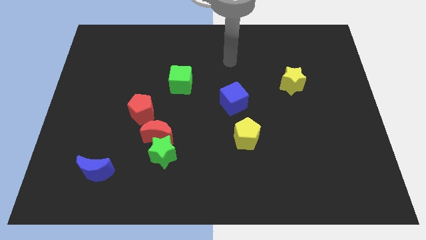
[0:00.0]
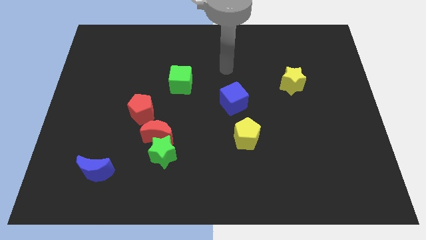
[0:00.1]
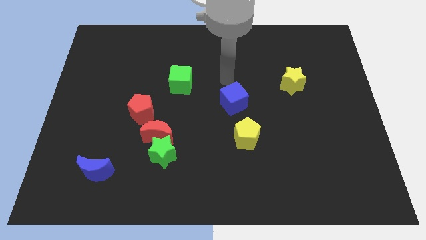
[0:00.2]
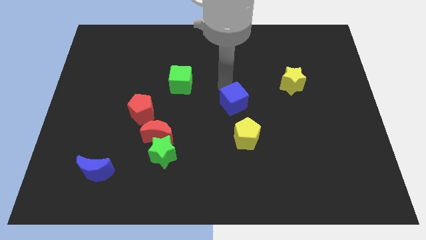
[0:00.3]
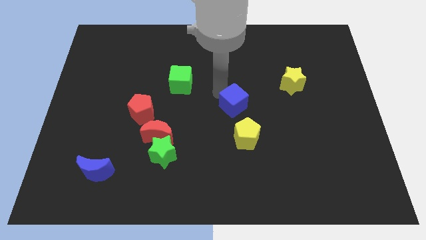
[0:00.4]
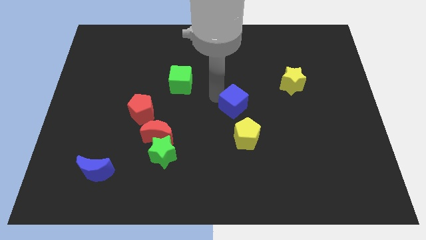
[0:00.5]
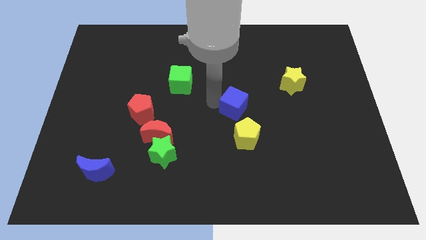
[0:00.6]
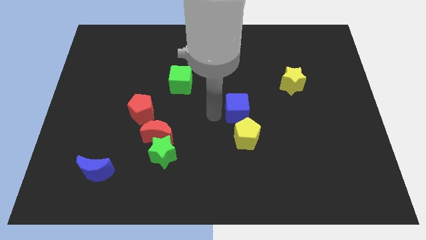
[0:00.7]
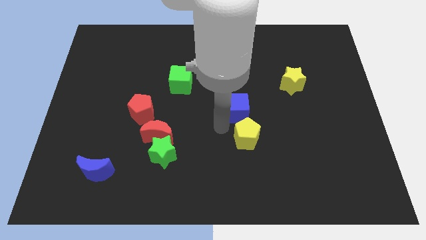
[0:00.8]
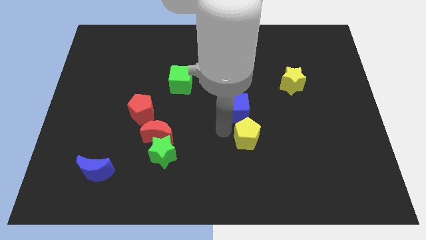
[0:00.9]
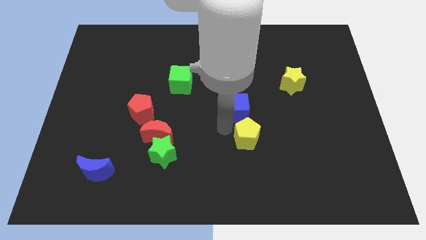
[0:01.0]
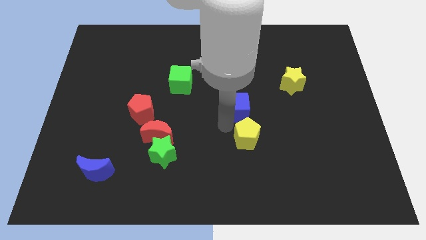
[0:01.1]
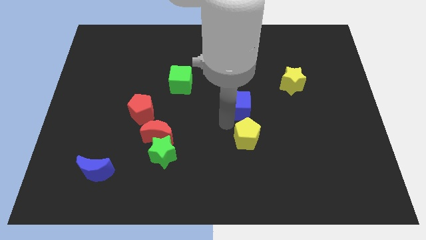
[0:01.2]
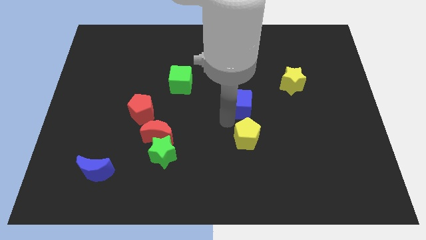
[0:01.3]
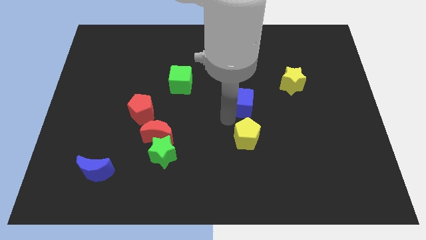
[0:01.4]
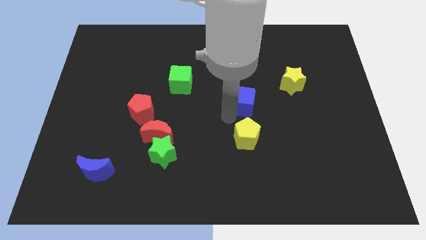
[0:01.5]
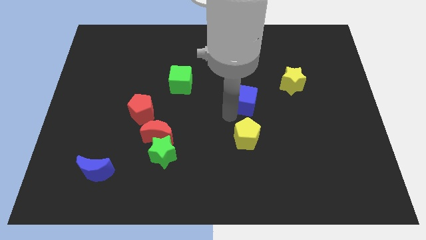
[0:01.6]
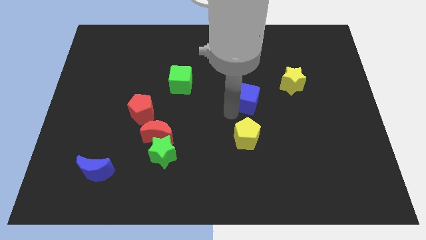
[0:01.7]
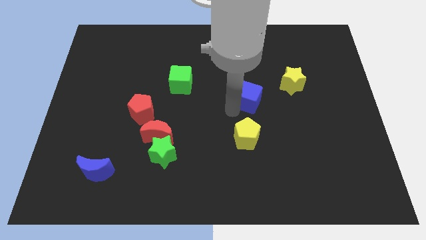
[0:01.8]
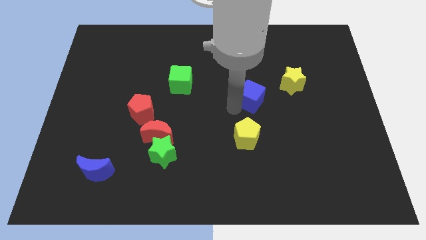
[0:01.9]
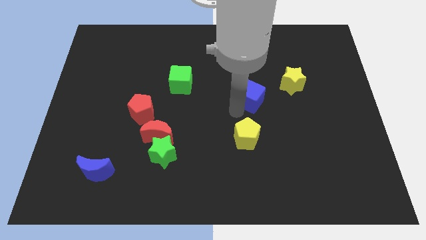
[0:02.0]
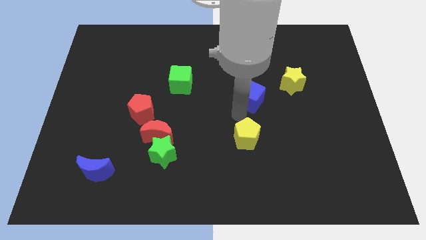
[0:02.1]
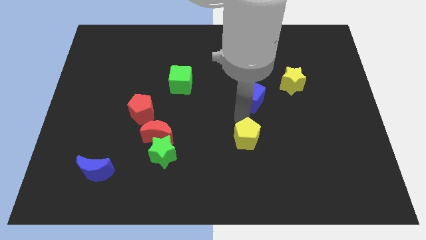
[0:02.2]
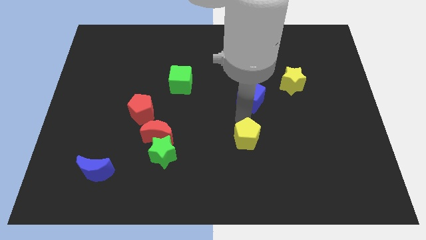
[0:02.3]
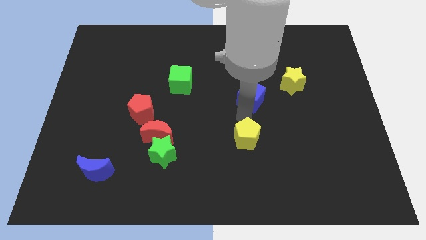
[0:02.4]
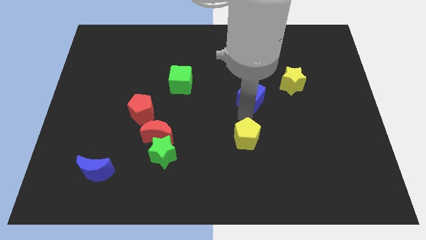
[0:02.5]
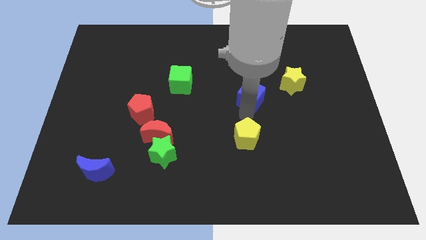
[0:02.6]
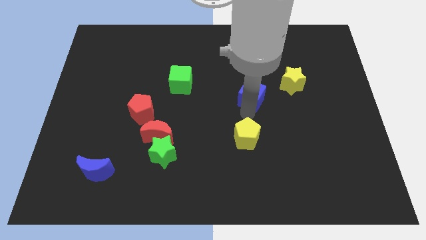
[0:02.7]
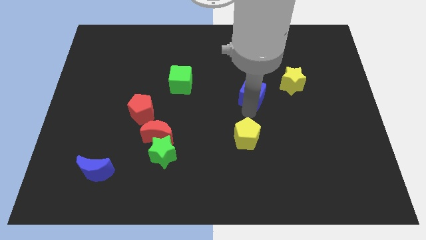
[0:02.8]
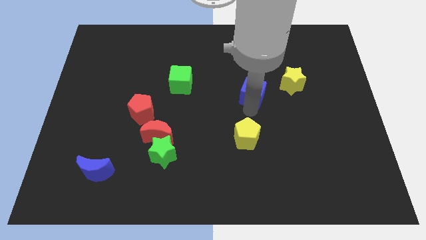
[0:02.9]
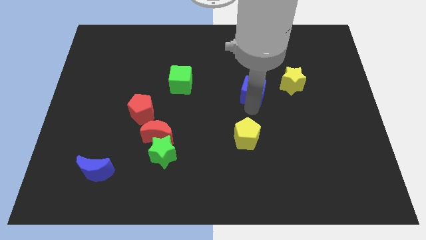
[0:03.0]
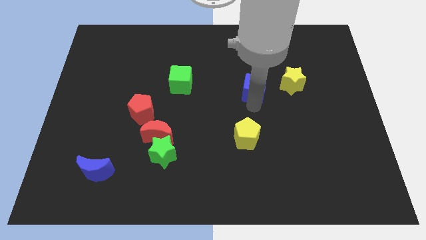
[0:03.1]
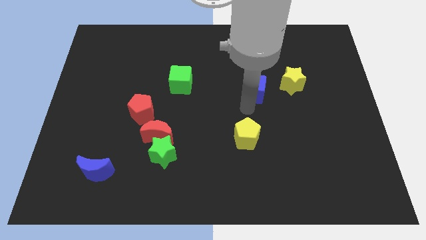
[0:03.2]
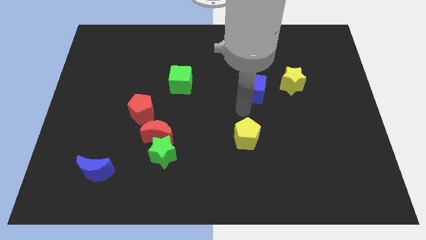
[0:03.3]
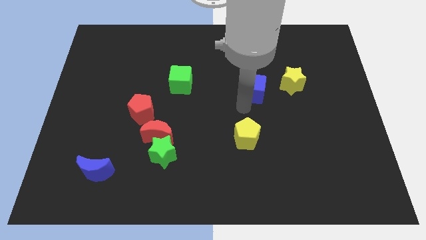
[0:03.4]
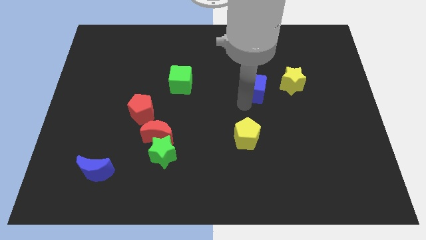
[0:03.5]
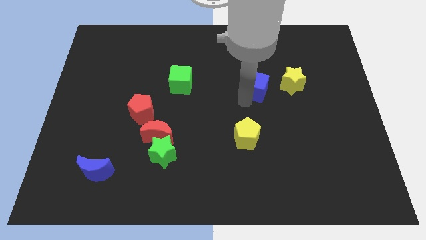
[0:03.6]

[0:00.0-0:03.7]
slide the blue cube up and to the right diagonally slightly

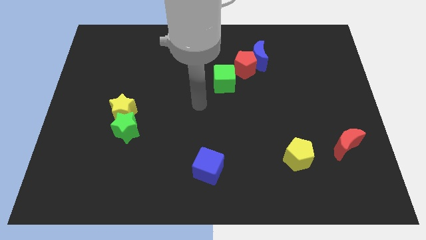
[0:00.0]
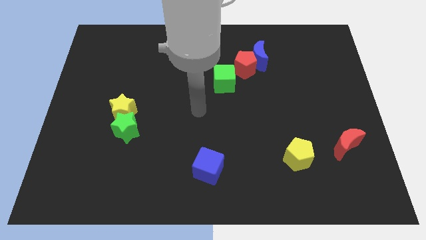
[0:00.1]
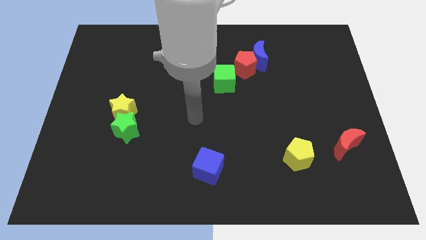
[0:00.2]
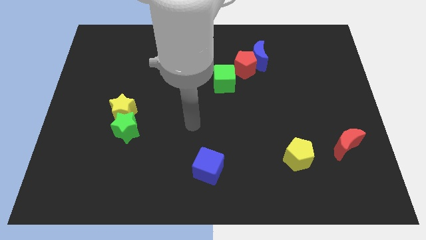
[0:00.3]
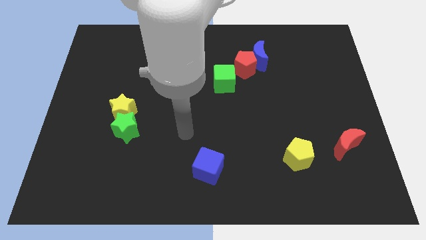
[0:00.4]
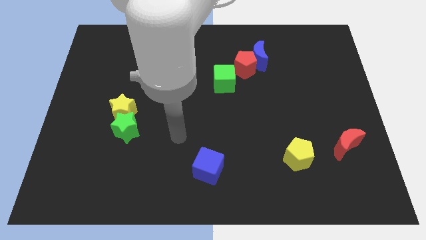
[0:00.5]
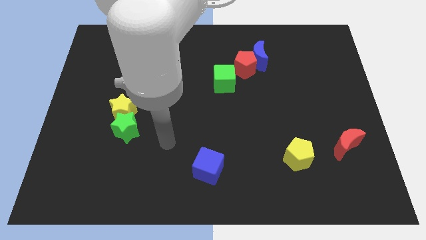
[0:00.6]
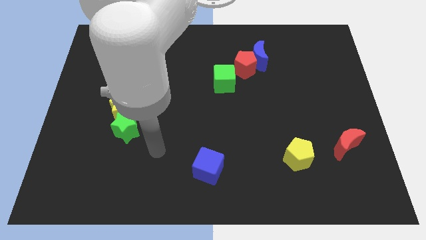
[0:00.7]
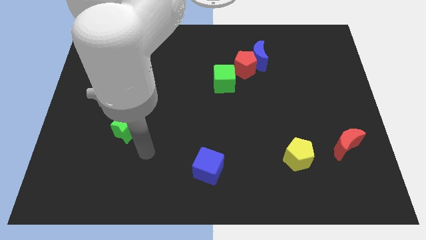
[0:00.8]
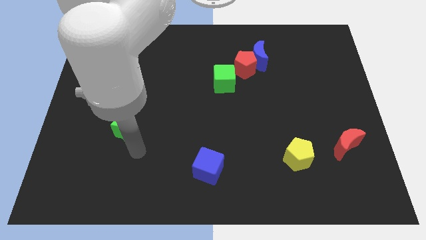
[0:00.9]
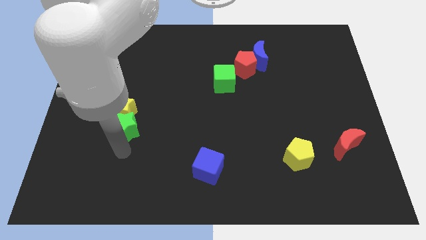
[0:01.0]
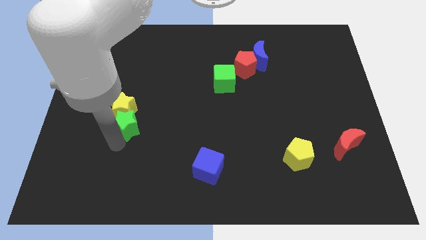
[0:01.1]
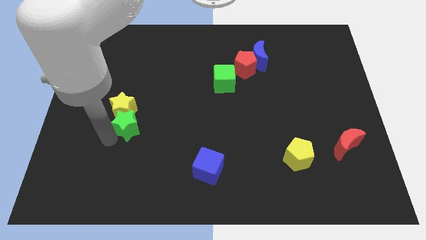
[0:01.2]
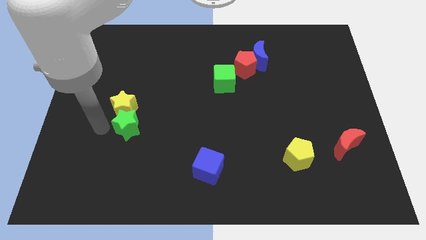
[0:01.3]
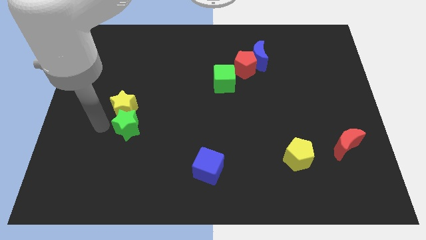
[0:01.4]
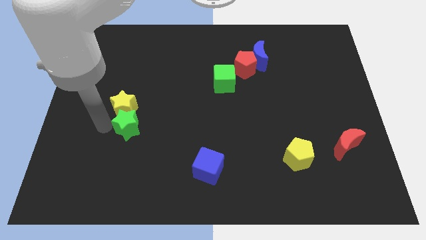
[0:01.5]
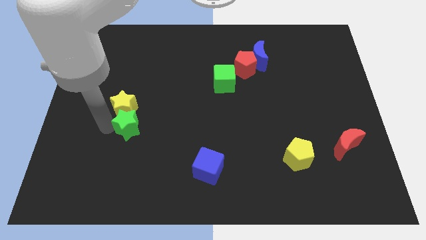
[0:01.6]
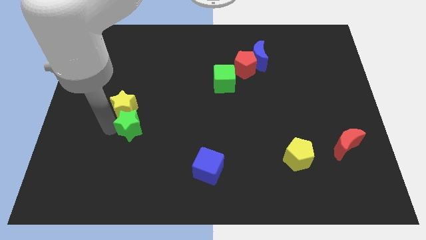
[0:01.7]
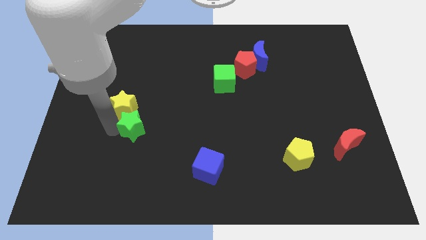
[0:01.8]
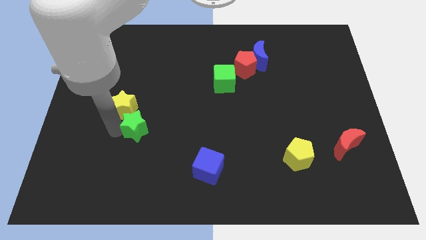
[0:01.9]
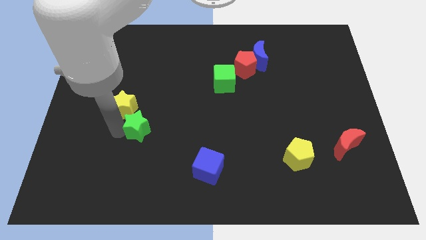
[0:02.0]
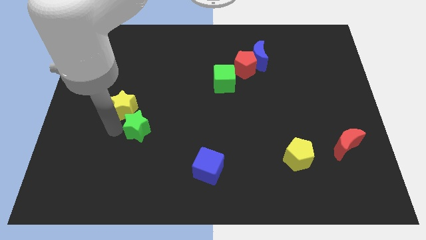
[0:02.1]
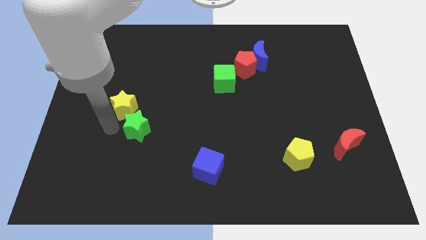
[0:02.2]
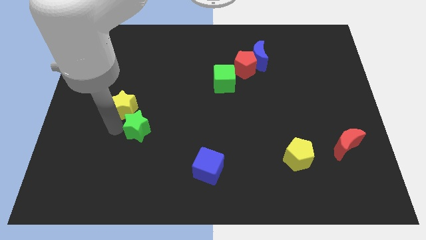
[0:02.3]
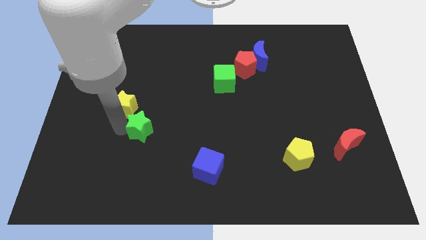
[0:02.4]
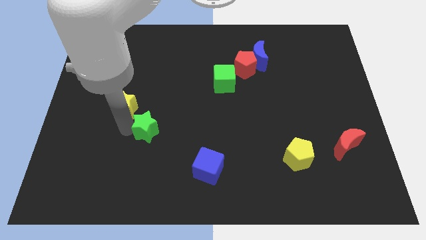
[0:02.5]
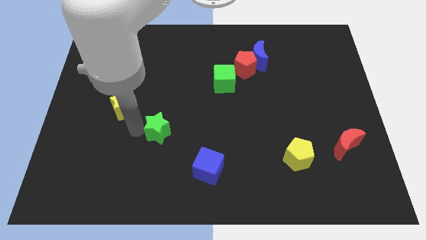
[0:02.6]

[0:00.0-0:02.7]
slightly slide the green star right

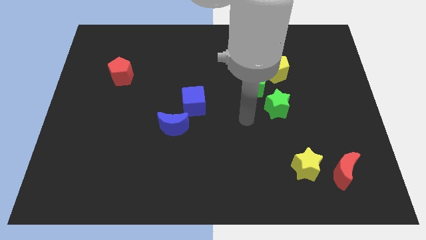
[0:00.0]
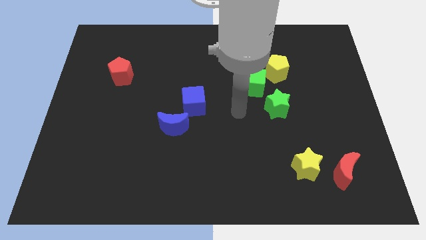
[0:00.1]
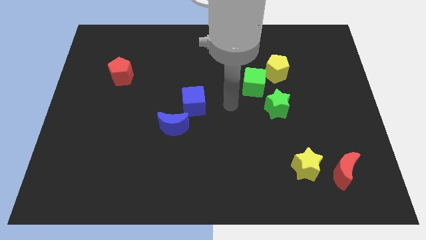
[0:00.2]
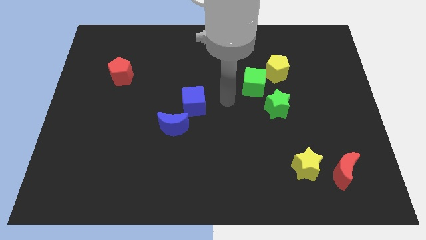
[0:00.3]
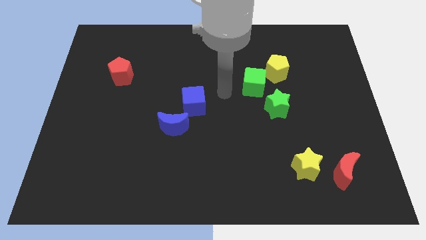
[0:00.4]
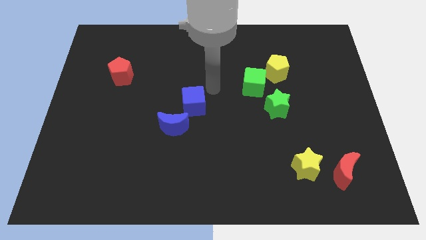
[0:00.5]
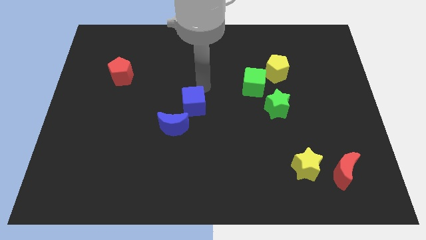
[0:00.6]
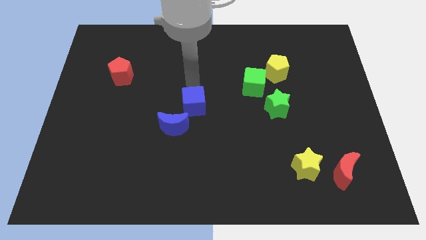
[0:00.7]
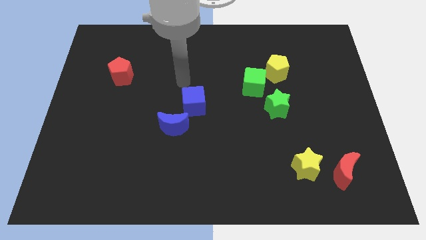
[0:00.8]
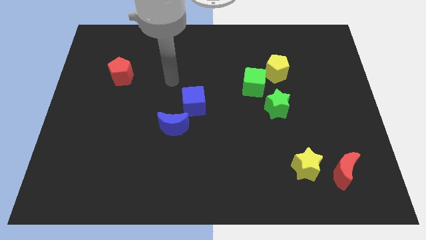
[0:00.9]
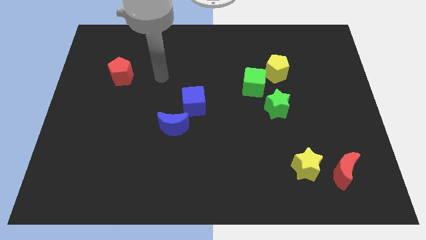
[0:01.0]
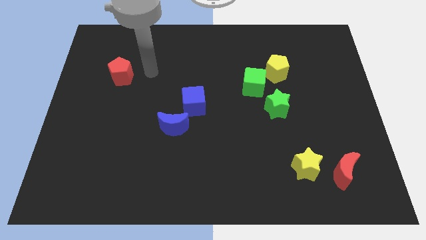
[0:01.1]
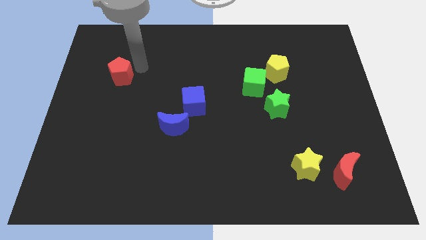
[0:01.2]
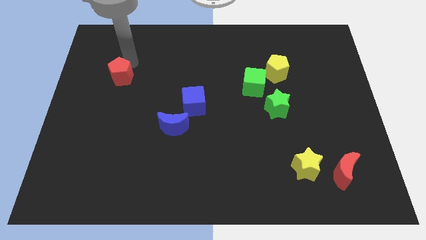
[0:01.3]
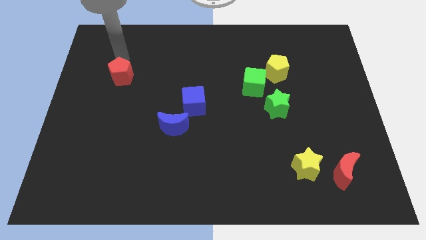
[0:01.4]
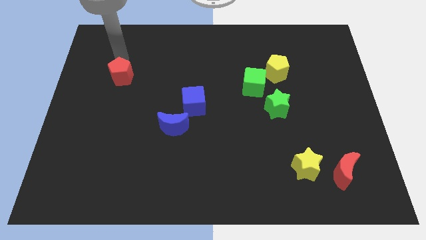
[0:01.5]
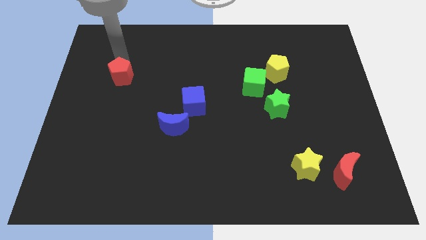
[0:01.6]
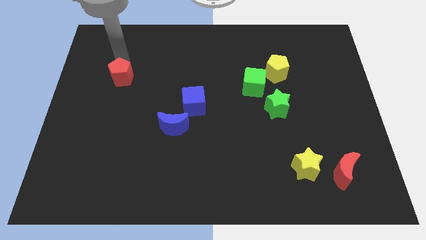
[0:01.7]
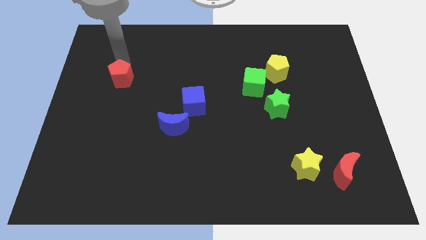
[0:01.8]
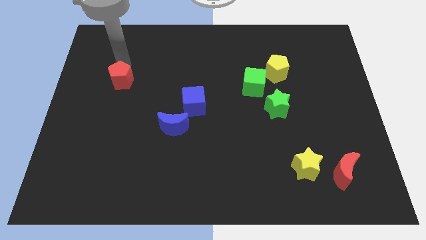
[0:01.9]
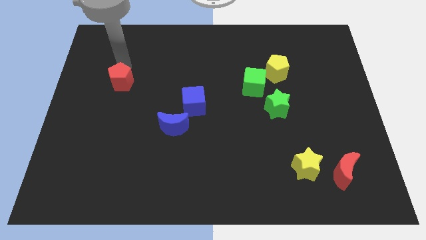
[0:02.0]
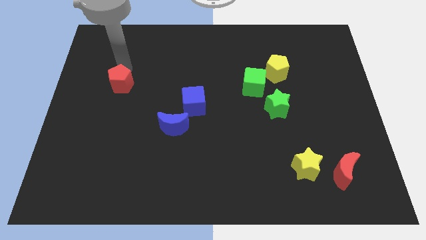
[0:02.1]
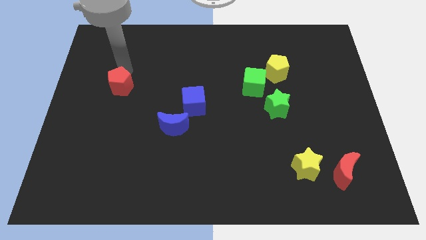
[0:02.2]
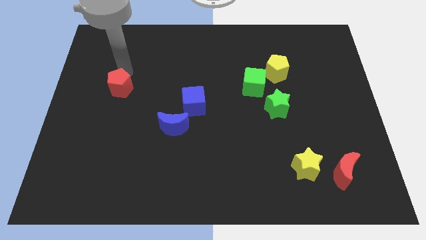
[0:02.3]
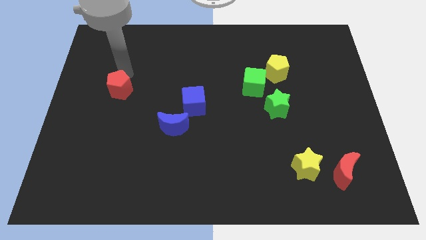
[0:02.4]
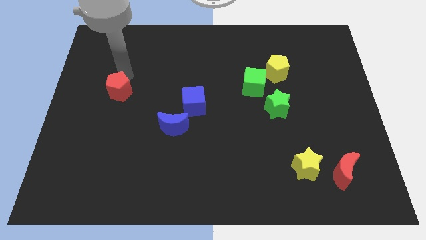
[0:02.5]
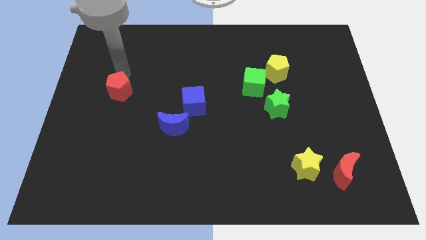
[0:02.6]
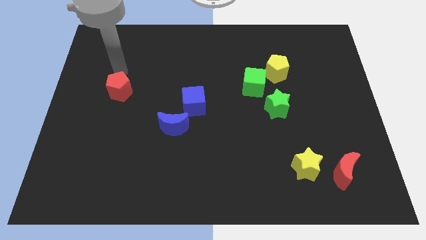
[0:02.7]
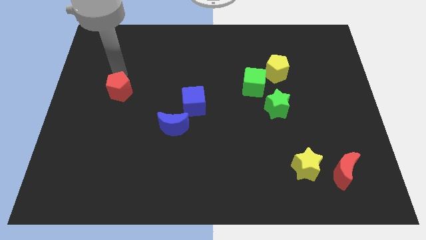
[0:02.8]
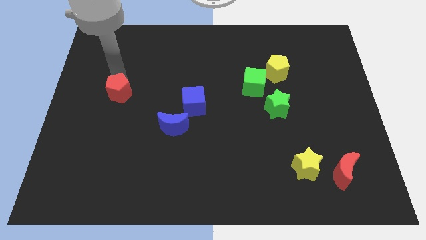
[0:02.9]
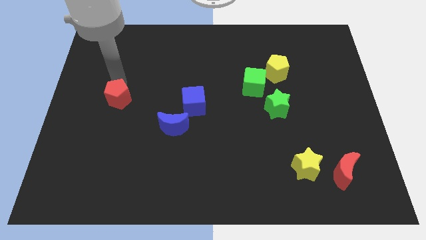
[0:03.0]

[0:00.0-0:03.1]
slide the red pentagon downwards a bit
